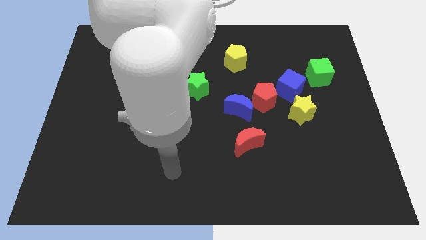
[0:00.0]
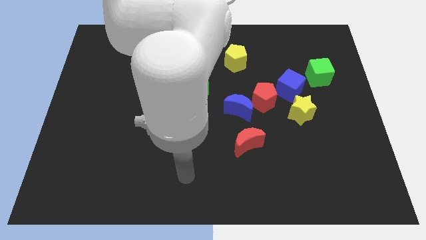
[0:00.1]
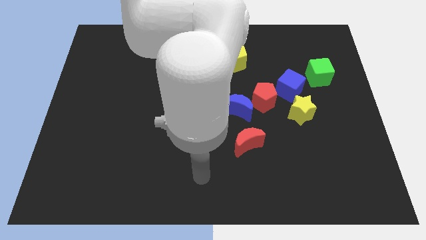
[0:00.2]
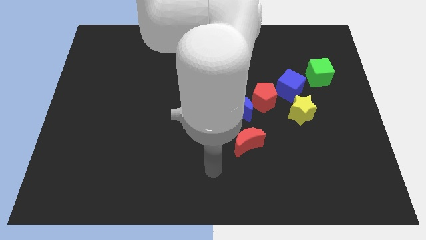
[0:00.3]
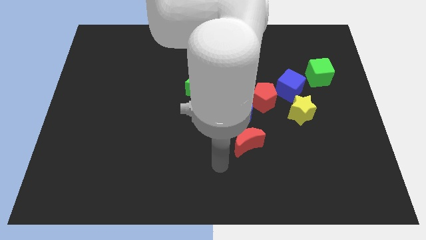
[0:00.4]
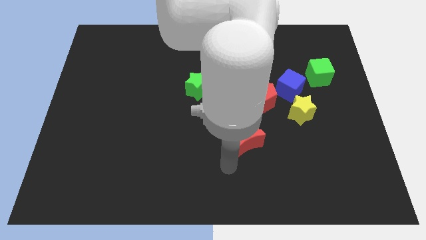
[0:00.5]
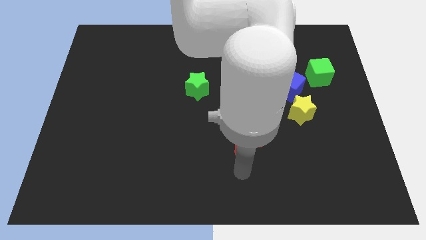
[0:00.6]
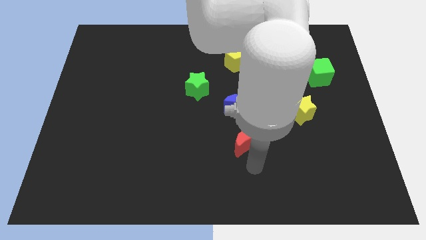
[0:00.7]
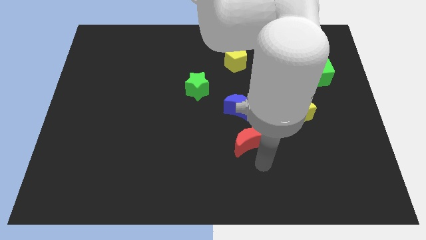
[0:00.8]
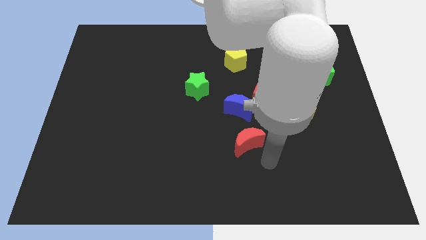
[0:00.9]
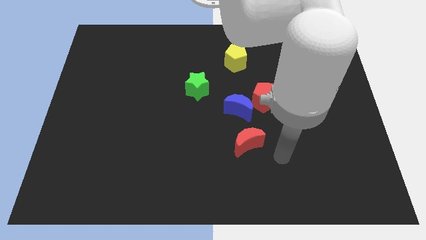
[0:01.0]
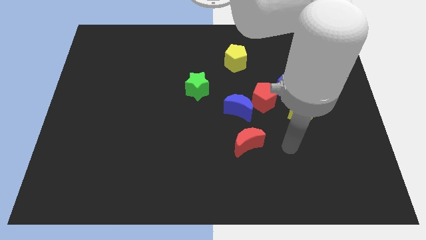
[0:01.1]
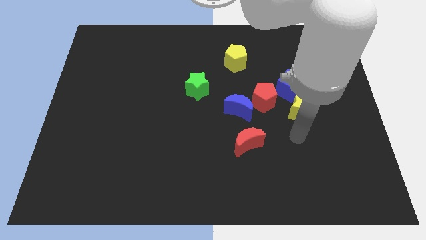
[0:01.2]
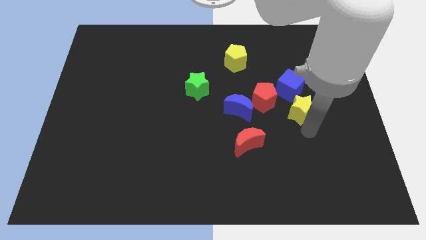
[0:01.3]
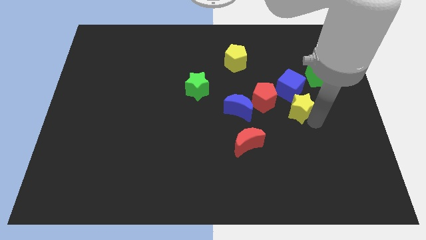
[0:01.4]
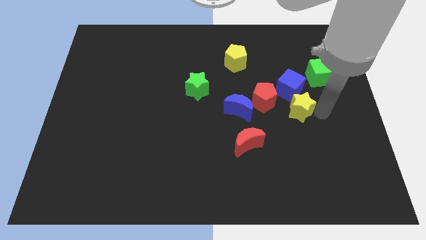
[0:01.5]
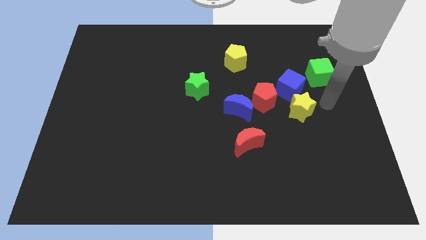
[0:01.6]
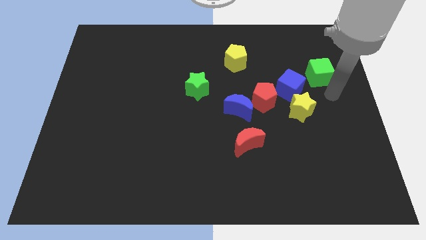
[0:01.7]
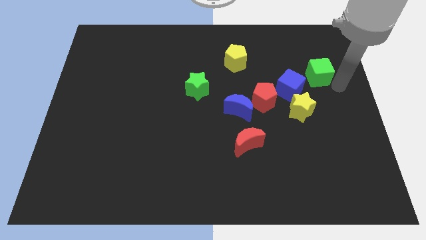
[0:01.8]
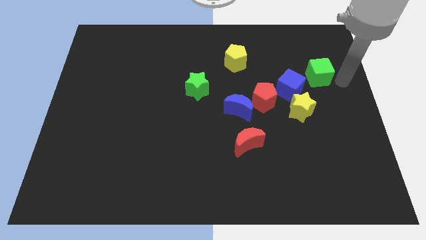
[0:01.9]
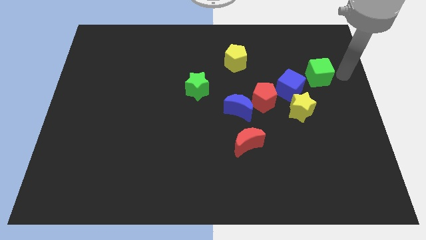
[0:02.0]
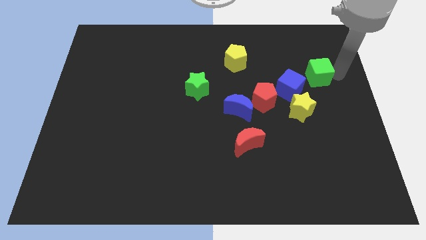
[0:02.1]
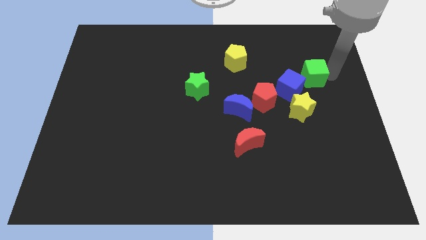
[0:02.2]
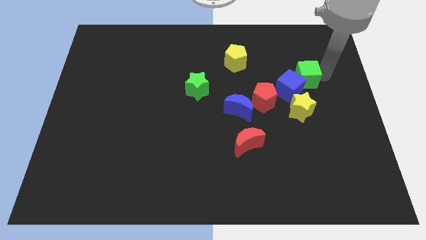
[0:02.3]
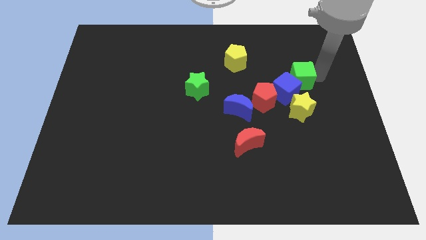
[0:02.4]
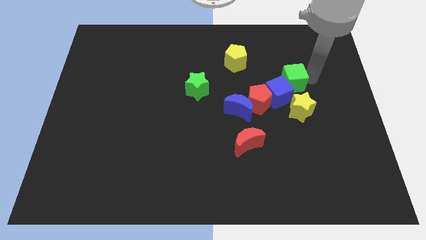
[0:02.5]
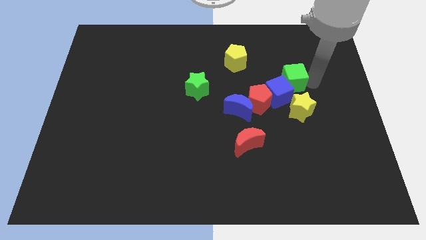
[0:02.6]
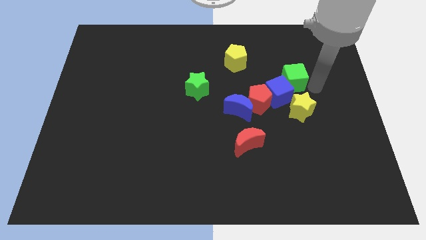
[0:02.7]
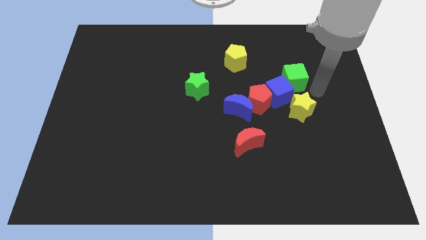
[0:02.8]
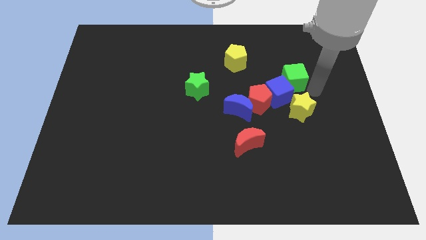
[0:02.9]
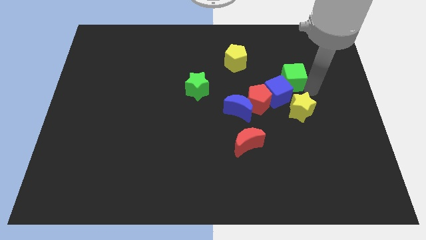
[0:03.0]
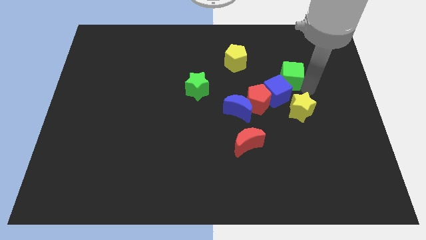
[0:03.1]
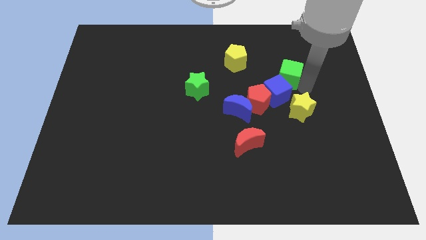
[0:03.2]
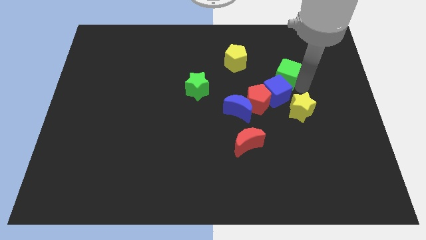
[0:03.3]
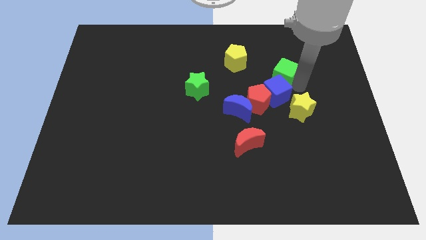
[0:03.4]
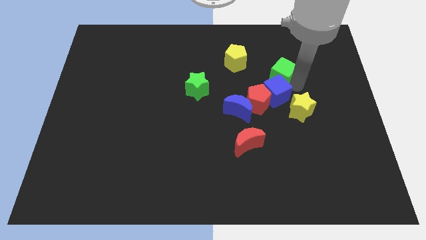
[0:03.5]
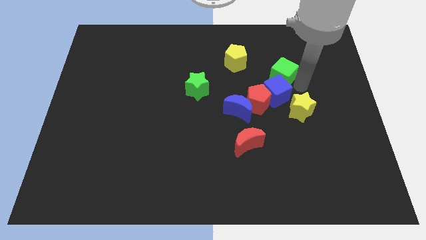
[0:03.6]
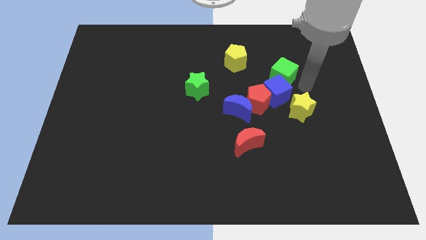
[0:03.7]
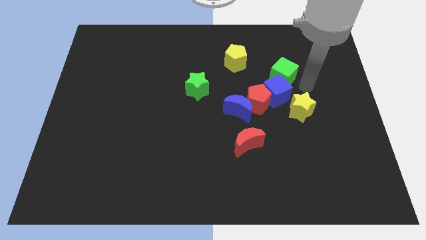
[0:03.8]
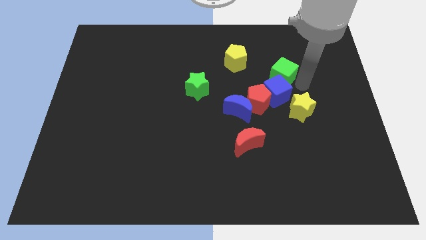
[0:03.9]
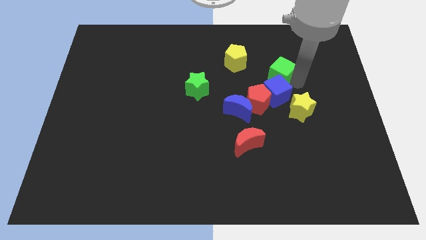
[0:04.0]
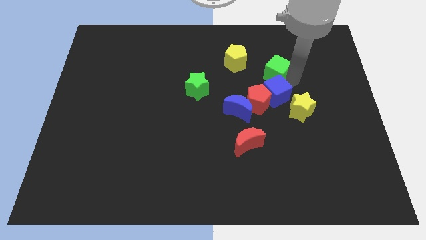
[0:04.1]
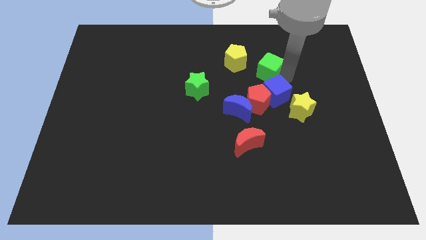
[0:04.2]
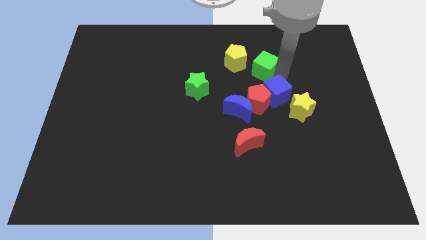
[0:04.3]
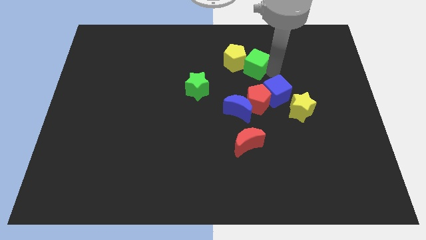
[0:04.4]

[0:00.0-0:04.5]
move the green cube towards the yellow pentagon

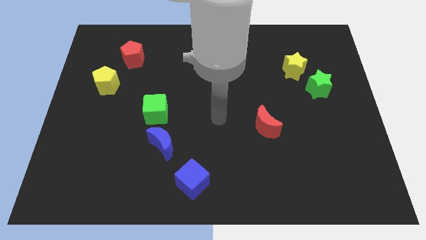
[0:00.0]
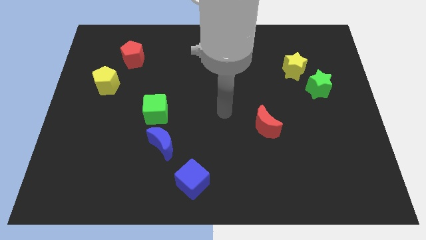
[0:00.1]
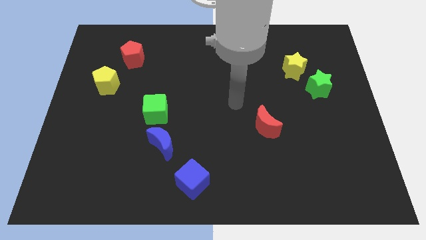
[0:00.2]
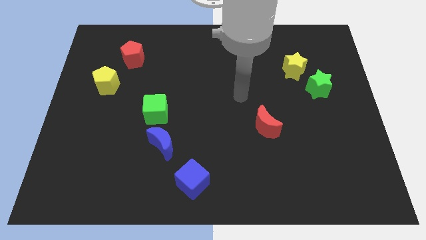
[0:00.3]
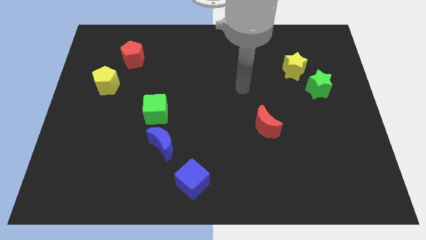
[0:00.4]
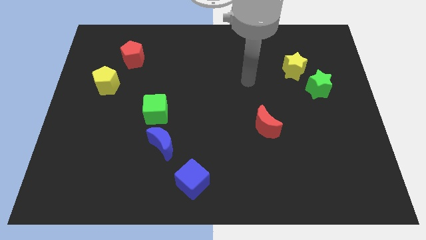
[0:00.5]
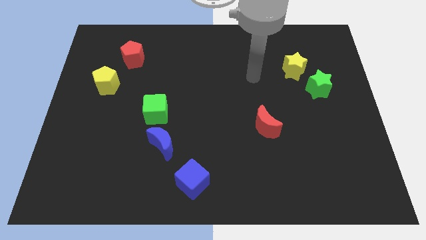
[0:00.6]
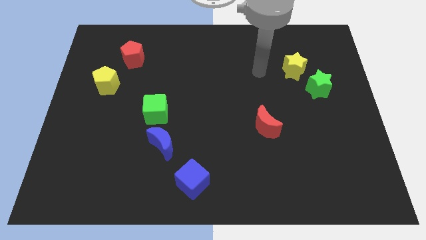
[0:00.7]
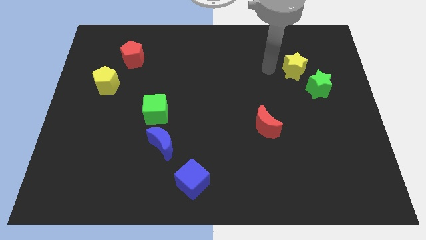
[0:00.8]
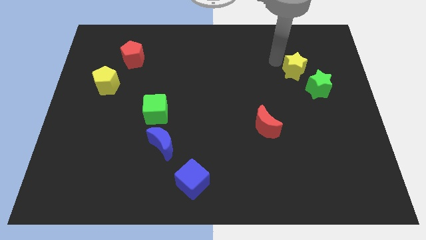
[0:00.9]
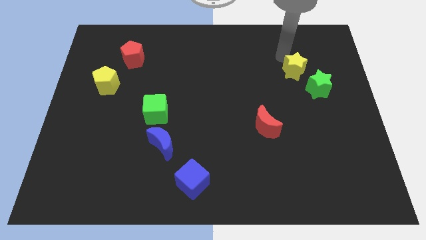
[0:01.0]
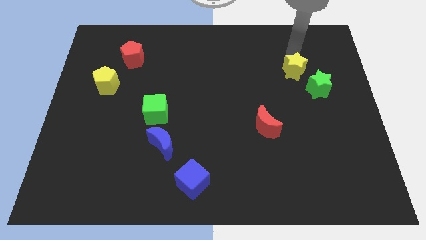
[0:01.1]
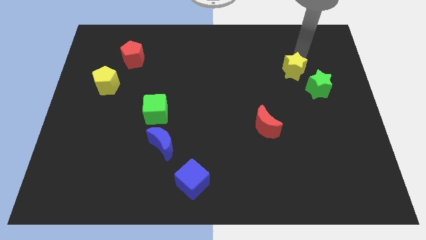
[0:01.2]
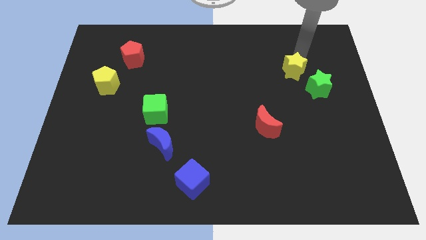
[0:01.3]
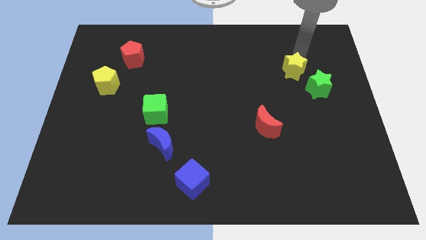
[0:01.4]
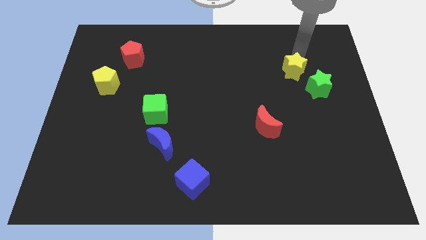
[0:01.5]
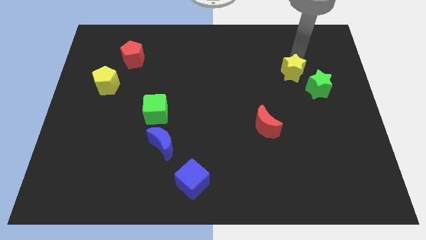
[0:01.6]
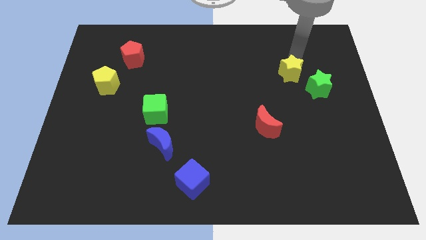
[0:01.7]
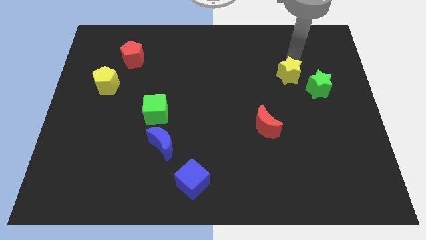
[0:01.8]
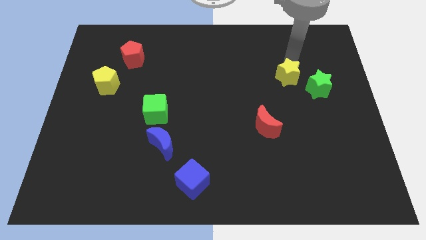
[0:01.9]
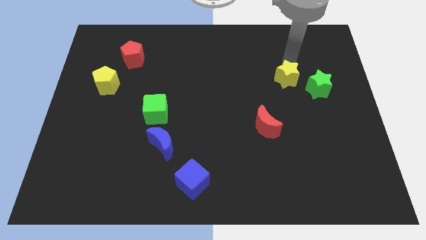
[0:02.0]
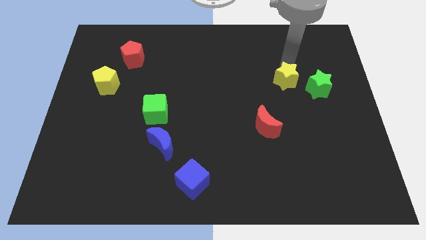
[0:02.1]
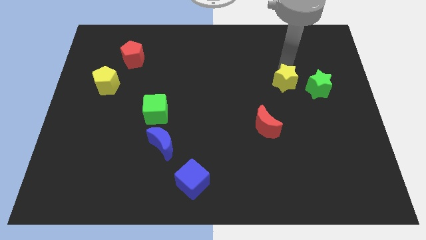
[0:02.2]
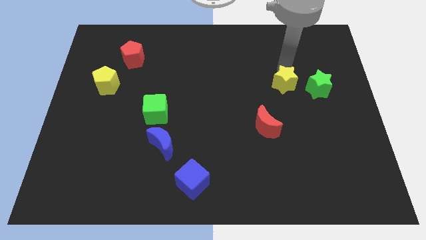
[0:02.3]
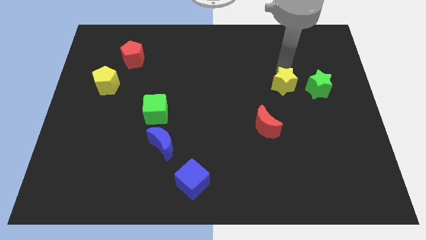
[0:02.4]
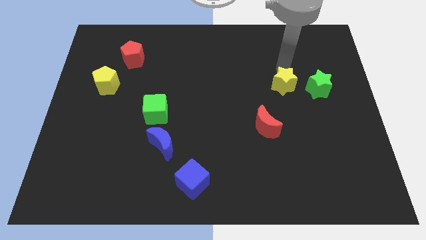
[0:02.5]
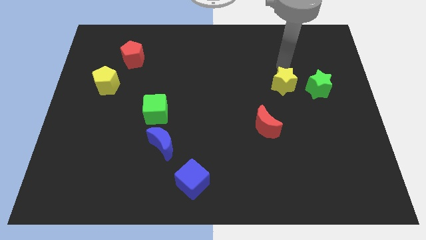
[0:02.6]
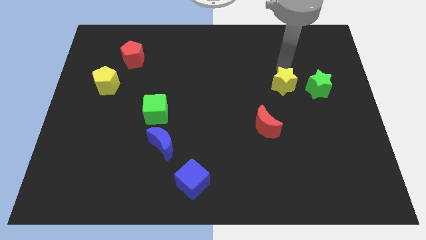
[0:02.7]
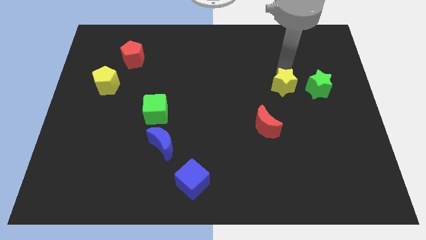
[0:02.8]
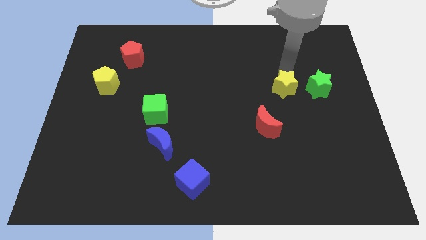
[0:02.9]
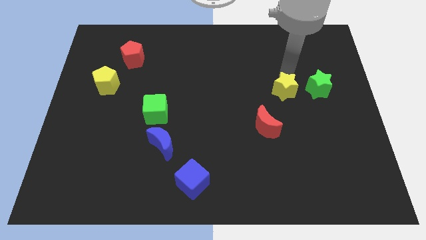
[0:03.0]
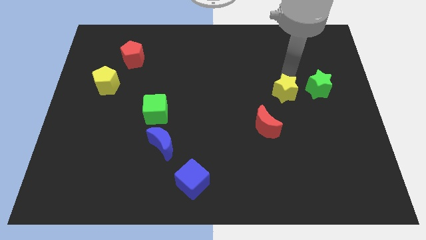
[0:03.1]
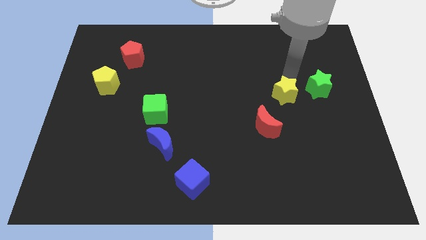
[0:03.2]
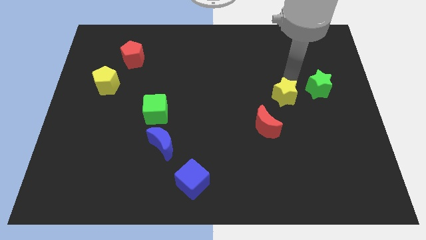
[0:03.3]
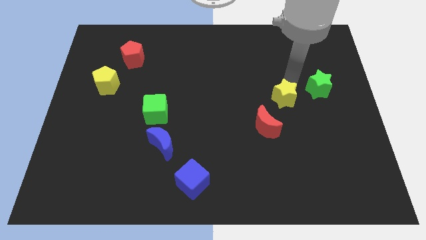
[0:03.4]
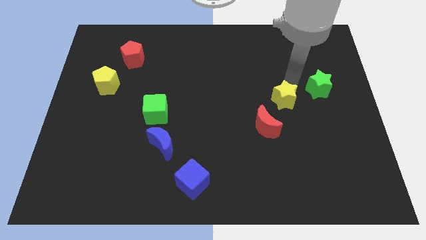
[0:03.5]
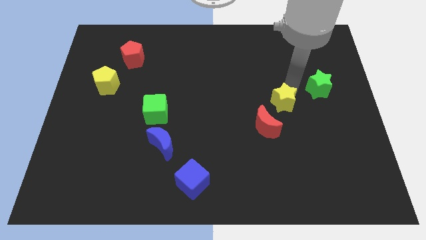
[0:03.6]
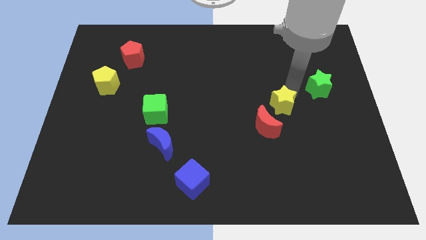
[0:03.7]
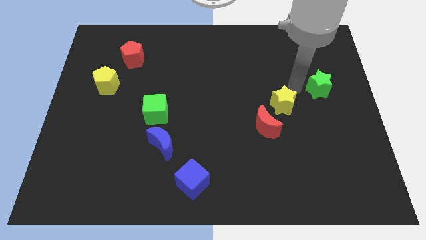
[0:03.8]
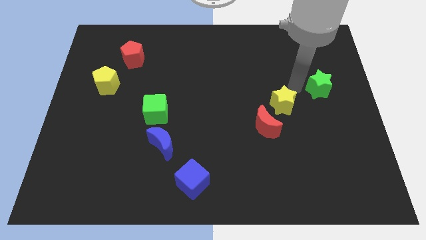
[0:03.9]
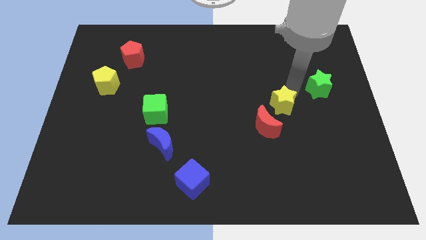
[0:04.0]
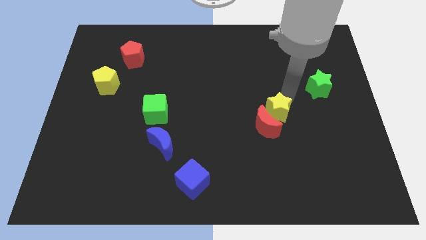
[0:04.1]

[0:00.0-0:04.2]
push the yellow star next to the red moon
